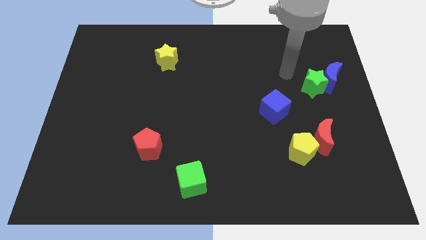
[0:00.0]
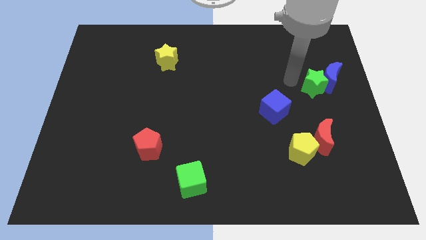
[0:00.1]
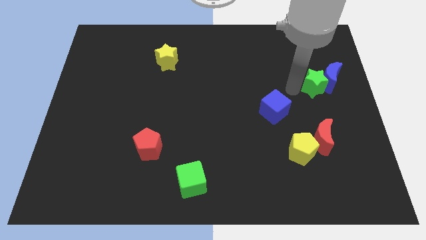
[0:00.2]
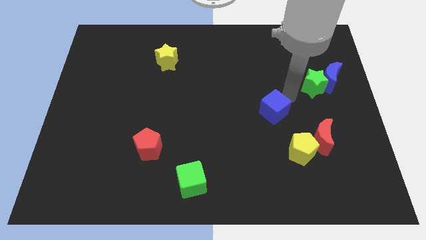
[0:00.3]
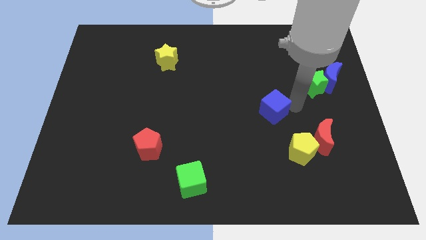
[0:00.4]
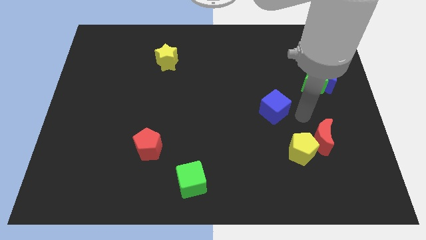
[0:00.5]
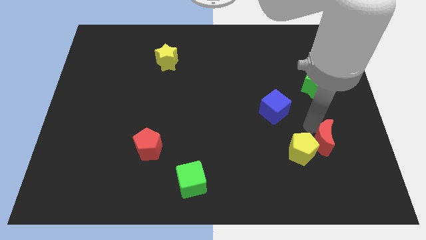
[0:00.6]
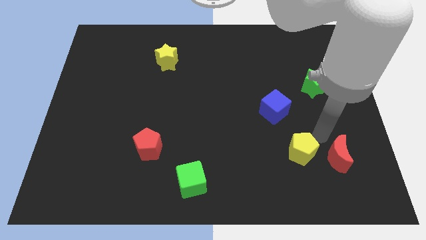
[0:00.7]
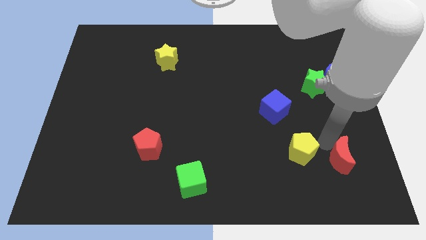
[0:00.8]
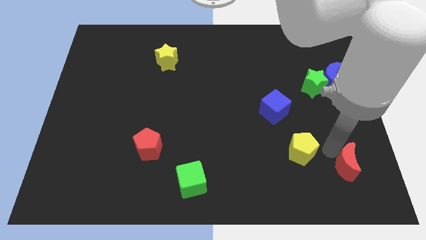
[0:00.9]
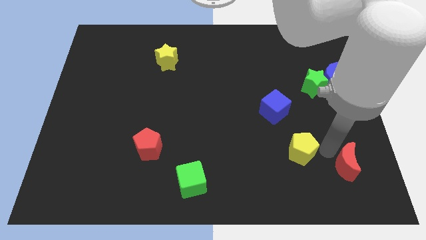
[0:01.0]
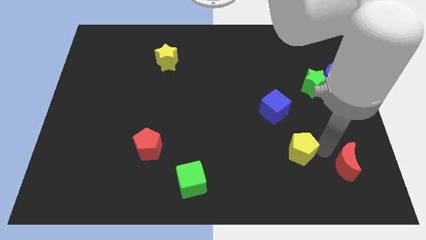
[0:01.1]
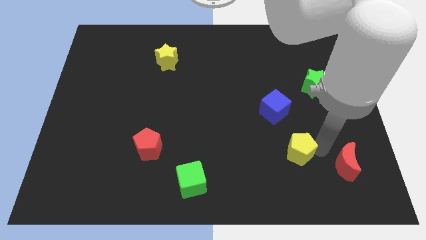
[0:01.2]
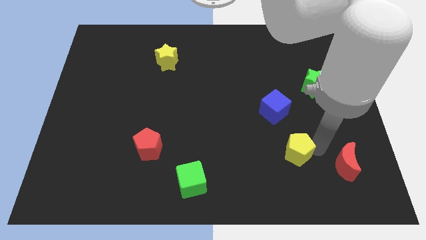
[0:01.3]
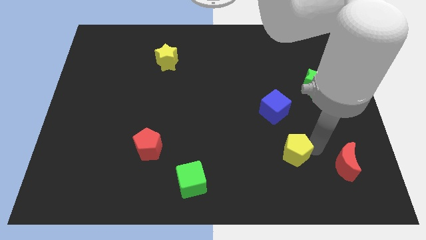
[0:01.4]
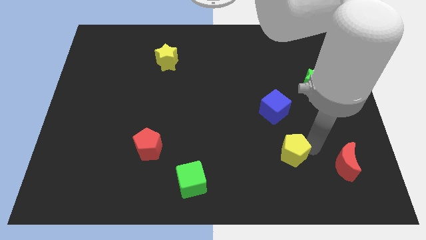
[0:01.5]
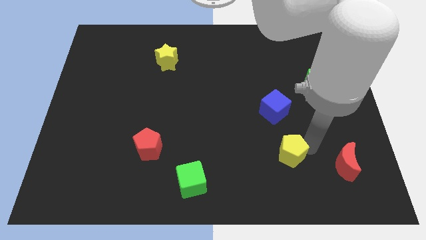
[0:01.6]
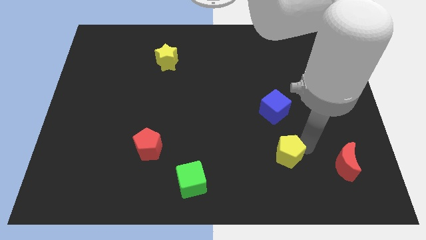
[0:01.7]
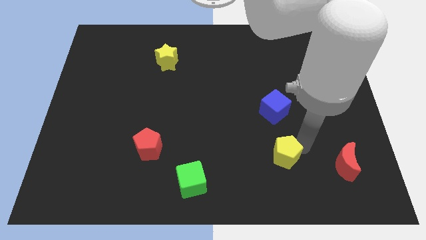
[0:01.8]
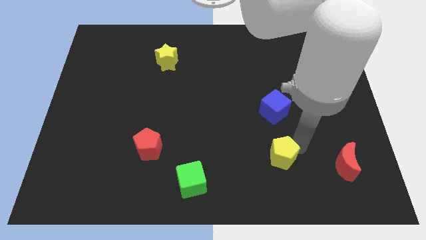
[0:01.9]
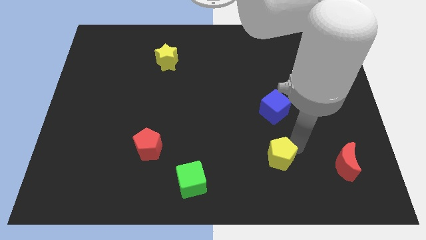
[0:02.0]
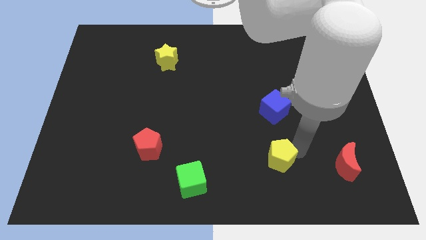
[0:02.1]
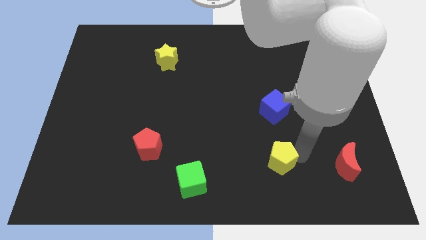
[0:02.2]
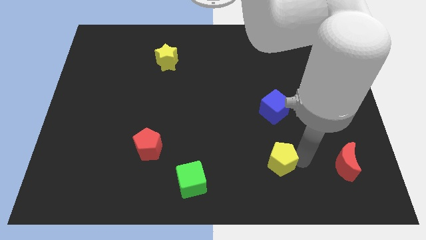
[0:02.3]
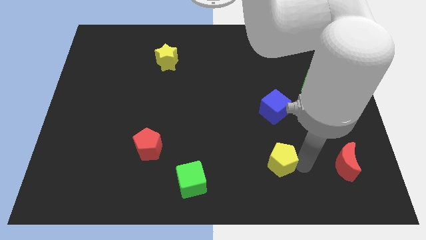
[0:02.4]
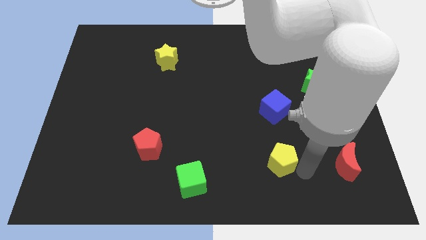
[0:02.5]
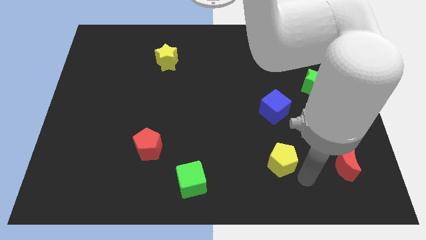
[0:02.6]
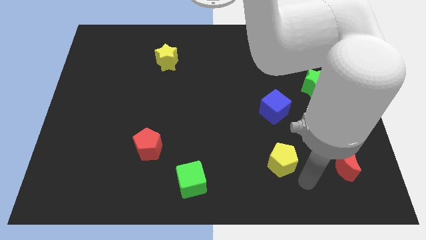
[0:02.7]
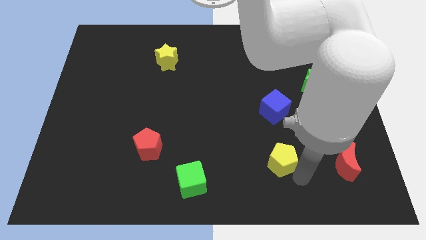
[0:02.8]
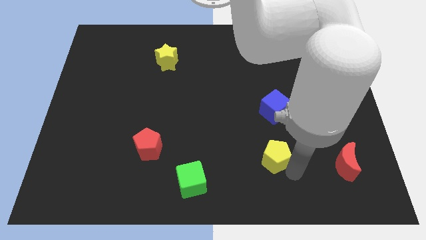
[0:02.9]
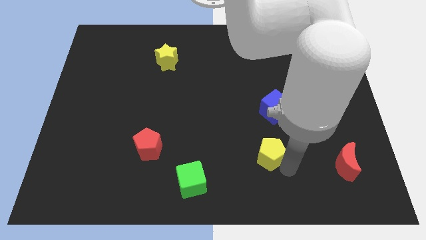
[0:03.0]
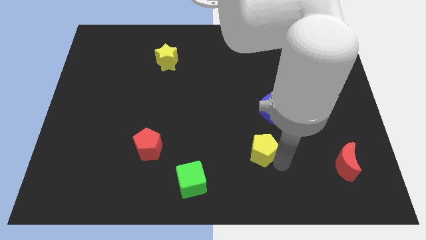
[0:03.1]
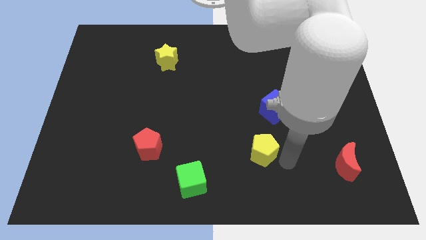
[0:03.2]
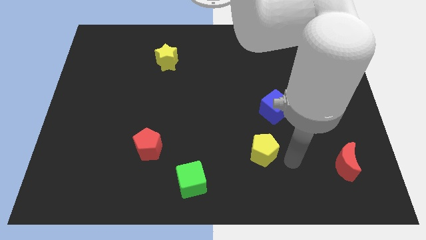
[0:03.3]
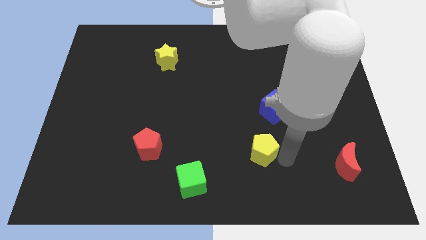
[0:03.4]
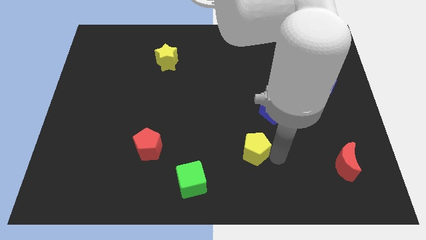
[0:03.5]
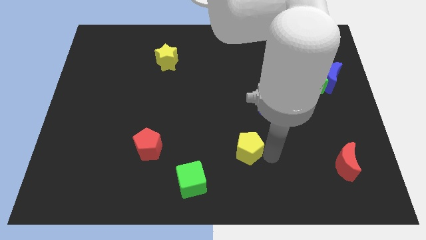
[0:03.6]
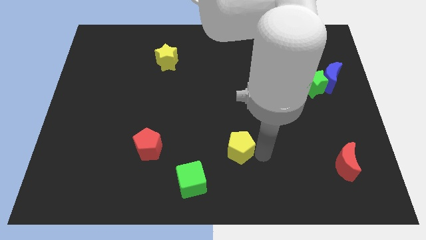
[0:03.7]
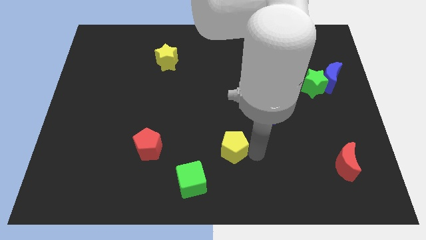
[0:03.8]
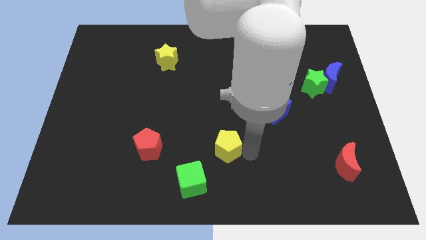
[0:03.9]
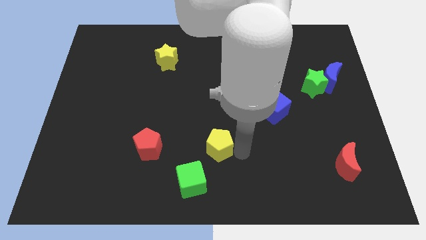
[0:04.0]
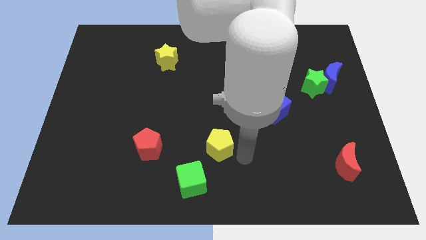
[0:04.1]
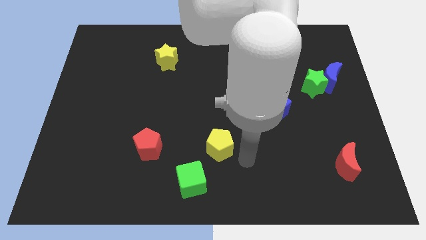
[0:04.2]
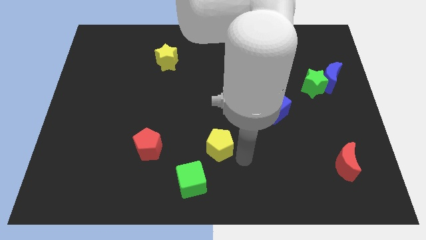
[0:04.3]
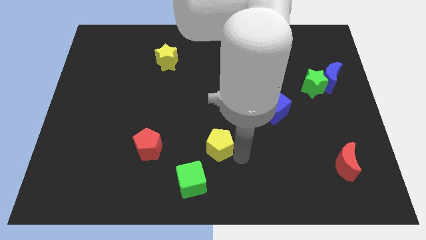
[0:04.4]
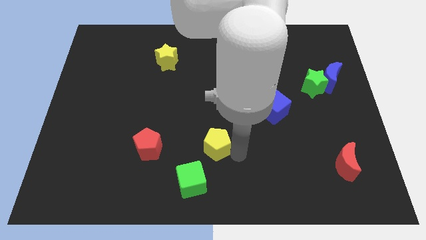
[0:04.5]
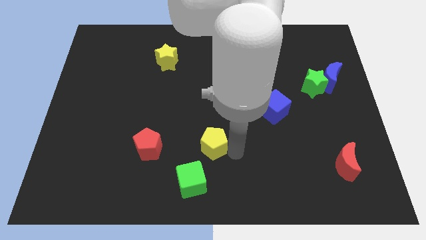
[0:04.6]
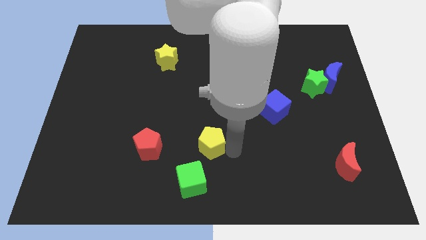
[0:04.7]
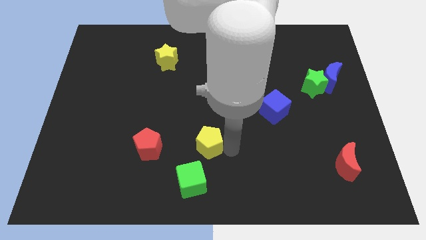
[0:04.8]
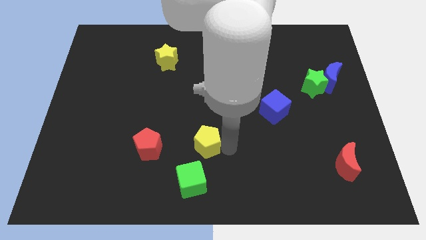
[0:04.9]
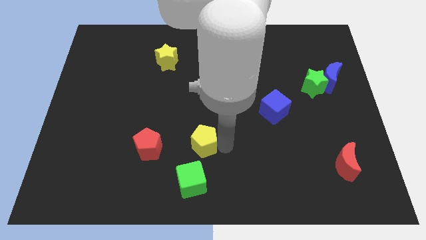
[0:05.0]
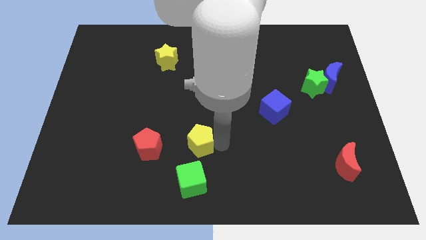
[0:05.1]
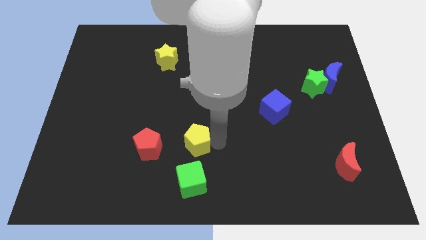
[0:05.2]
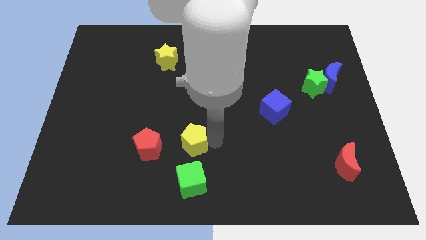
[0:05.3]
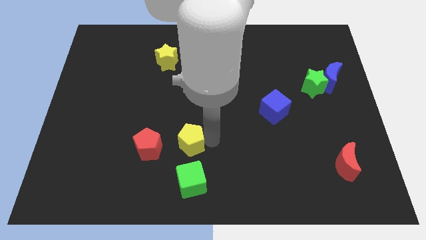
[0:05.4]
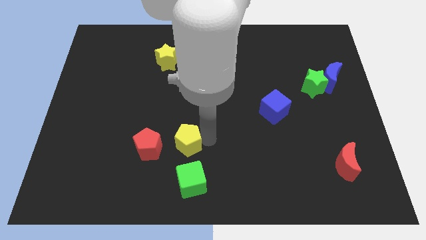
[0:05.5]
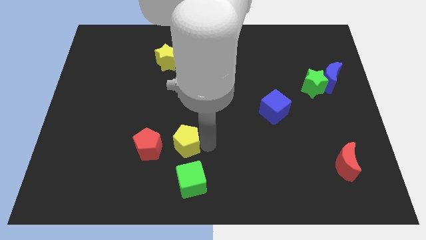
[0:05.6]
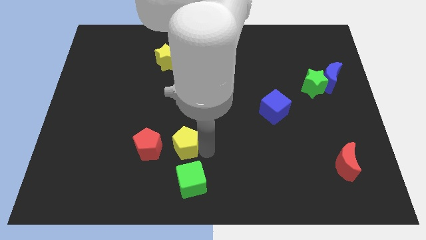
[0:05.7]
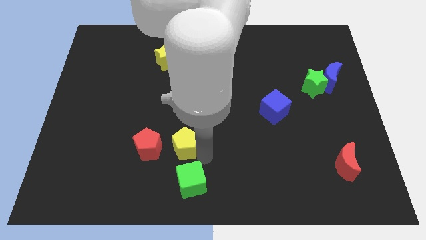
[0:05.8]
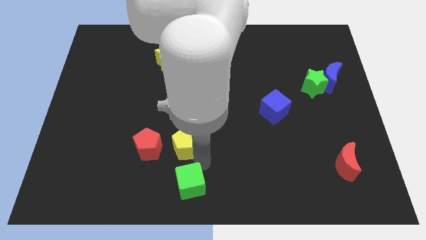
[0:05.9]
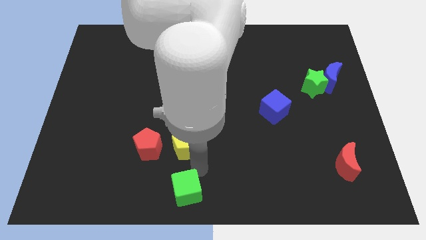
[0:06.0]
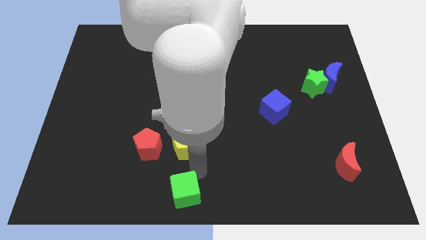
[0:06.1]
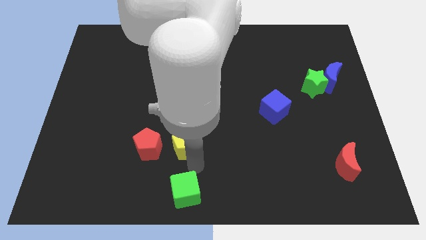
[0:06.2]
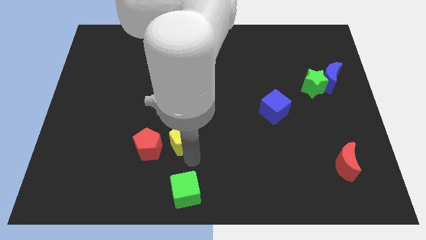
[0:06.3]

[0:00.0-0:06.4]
push the yellow pentagon diagonally up and to the right of the red pentagon

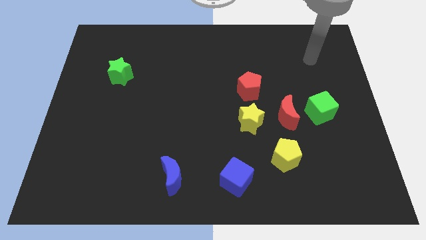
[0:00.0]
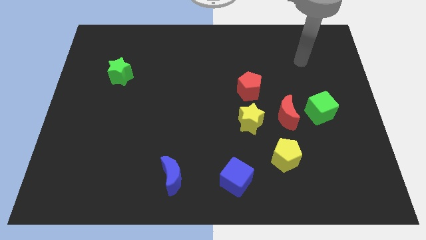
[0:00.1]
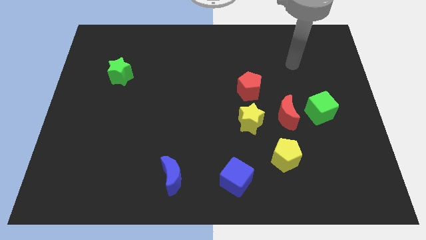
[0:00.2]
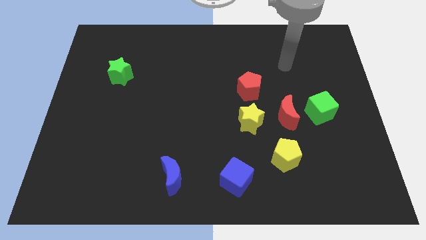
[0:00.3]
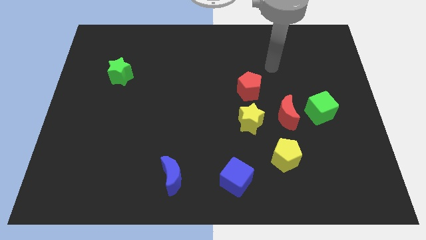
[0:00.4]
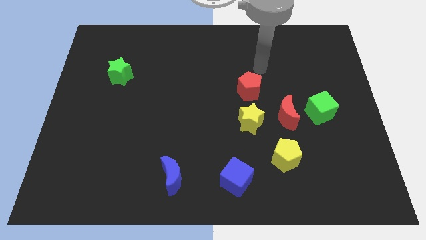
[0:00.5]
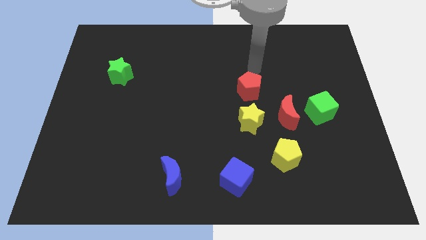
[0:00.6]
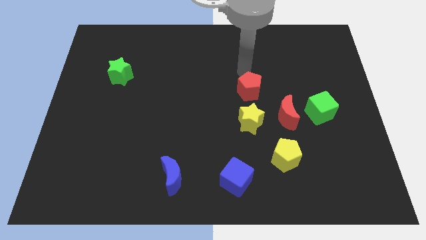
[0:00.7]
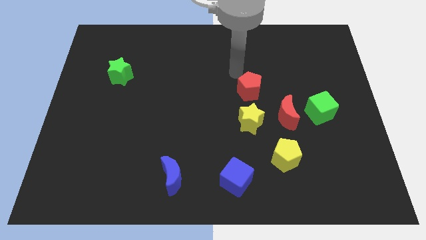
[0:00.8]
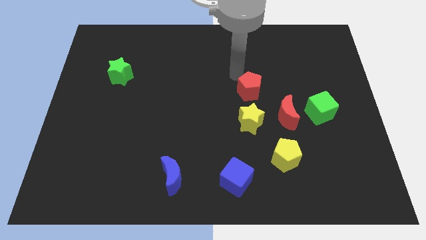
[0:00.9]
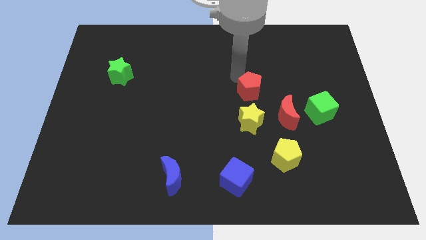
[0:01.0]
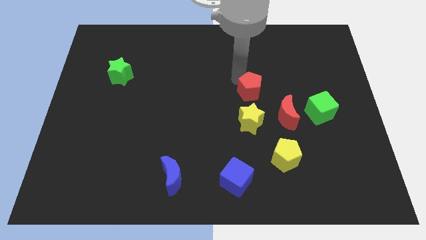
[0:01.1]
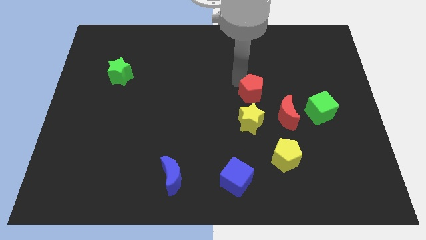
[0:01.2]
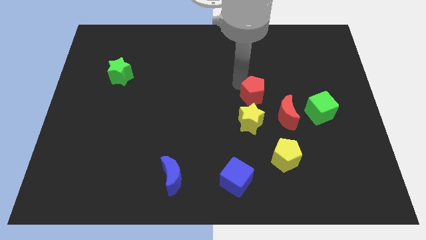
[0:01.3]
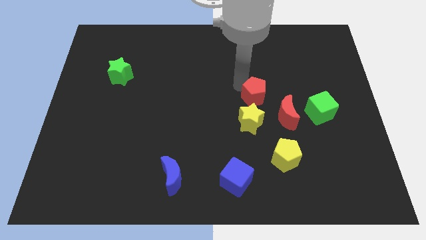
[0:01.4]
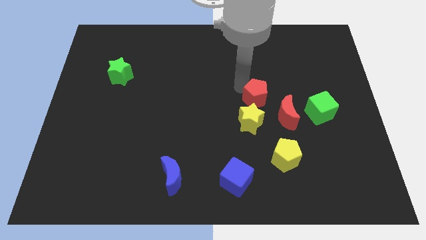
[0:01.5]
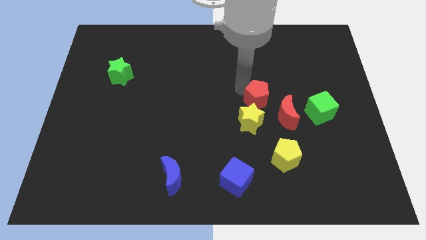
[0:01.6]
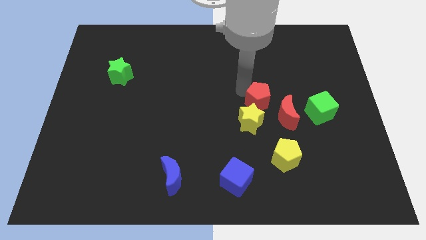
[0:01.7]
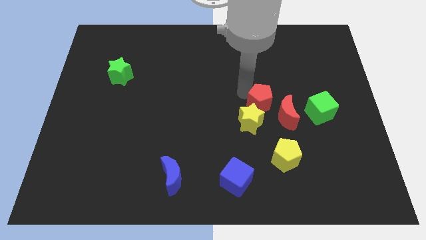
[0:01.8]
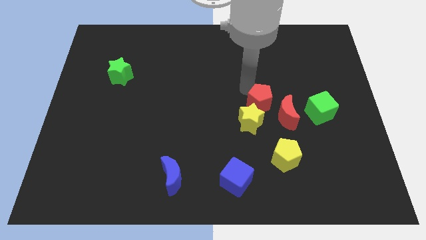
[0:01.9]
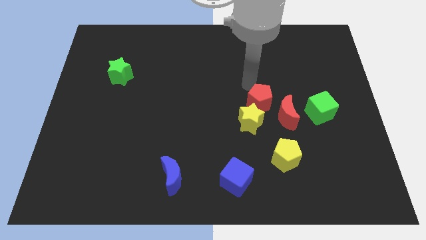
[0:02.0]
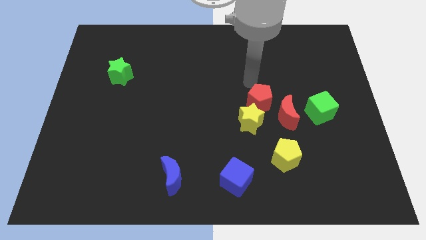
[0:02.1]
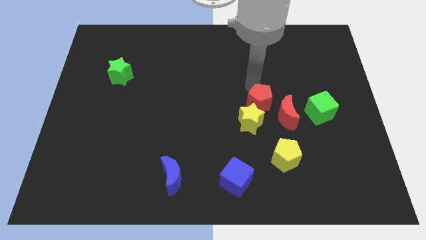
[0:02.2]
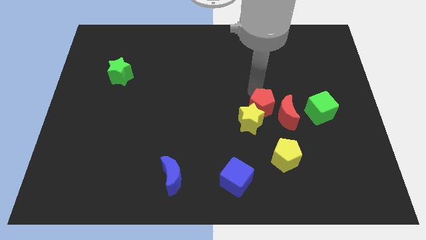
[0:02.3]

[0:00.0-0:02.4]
move the red pentagon to the right of the yellow star
